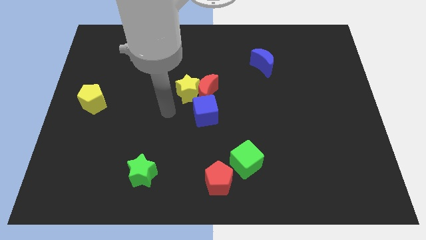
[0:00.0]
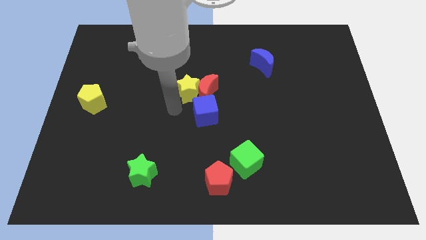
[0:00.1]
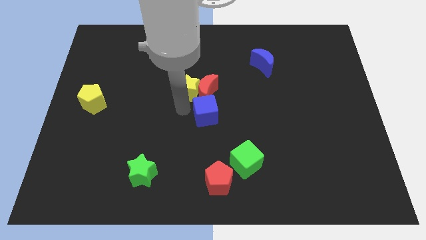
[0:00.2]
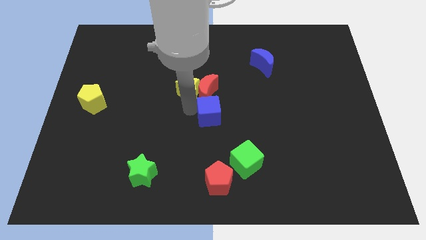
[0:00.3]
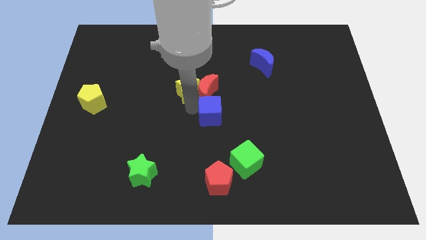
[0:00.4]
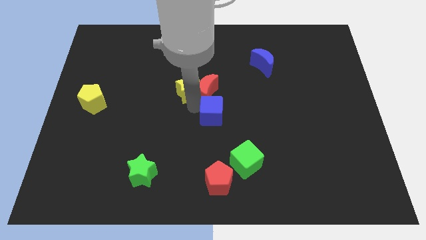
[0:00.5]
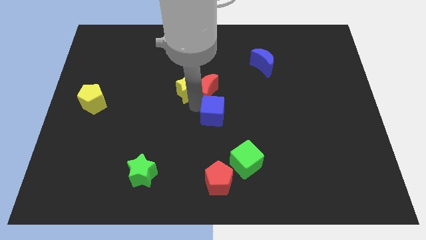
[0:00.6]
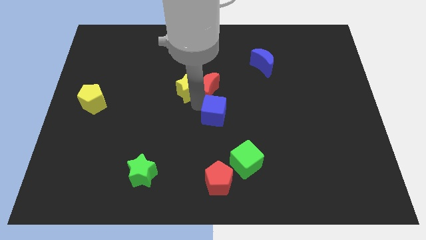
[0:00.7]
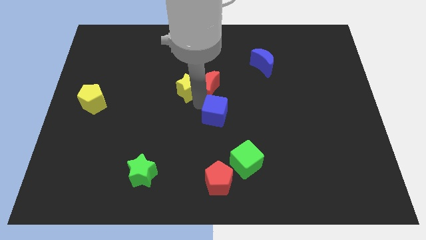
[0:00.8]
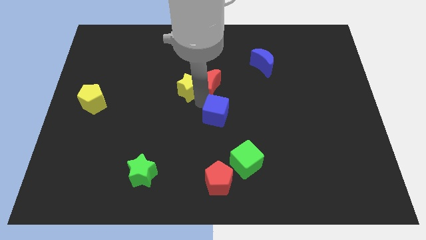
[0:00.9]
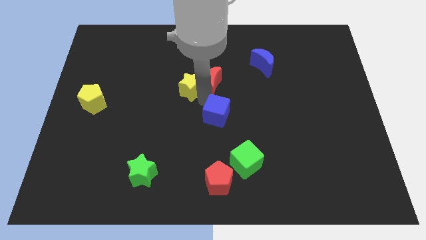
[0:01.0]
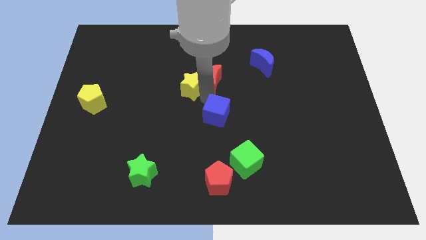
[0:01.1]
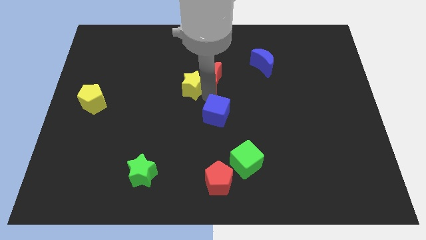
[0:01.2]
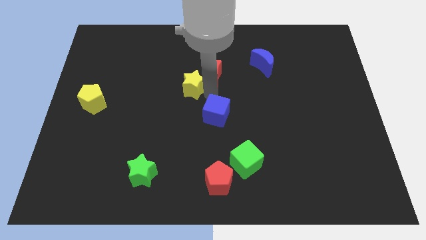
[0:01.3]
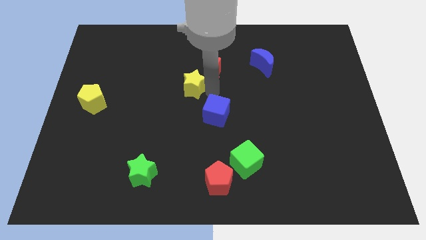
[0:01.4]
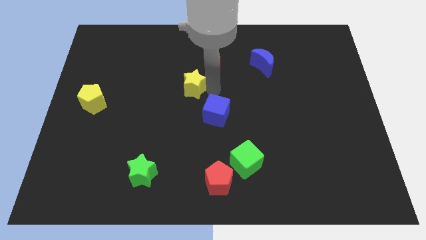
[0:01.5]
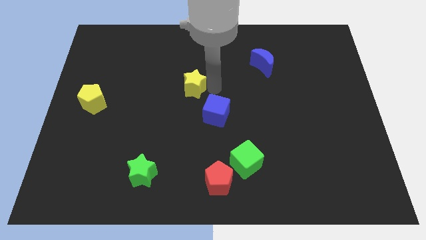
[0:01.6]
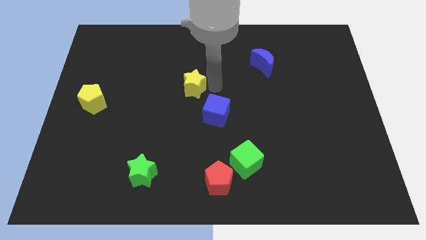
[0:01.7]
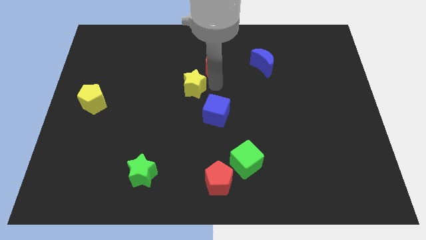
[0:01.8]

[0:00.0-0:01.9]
move the red moon away from the yellow star and blue cube

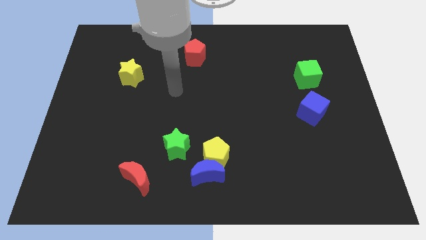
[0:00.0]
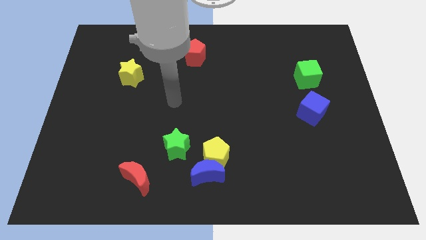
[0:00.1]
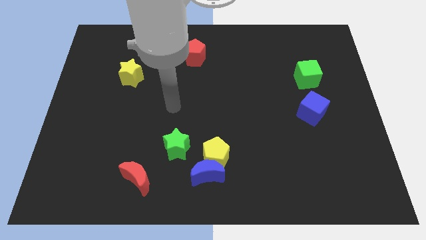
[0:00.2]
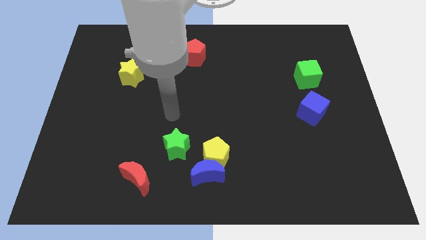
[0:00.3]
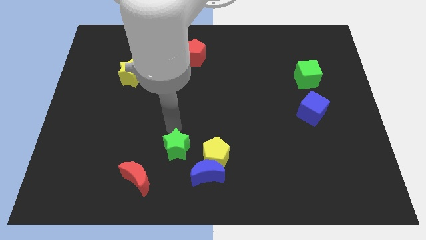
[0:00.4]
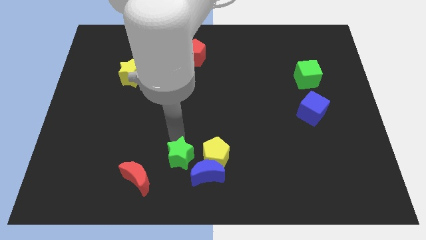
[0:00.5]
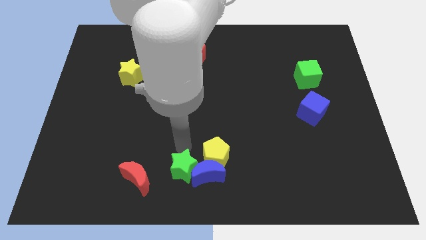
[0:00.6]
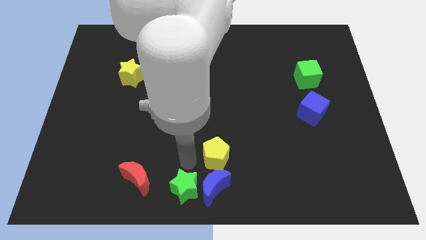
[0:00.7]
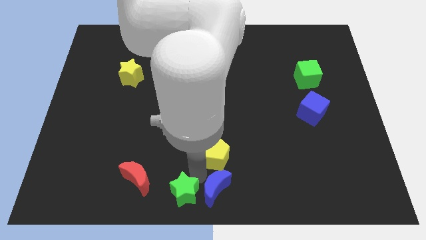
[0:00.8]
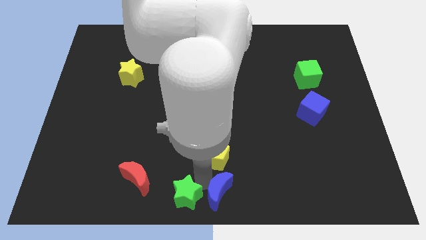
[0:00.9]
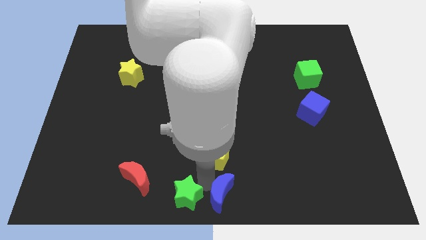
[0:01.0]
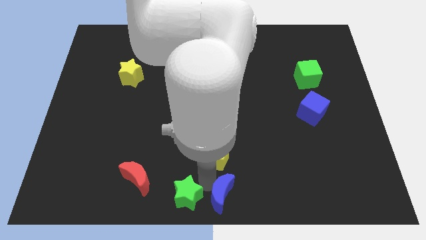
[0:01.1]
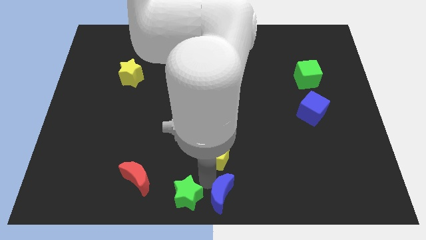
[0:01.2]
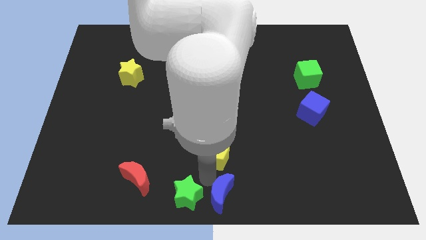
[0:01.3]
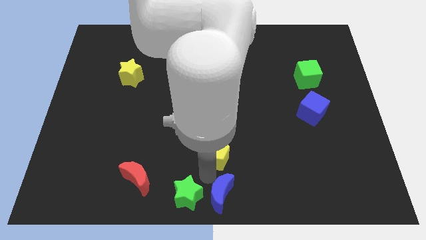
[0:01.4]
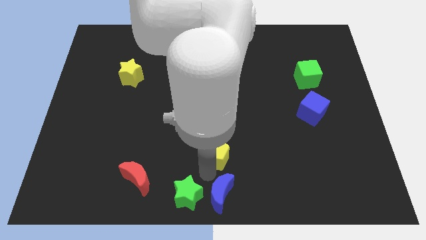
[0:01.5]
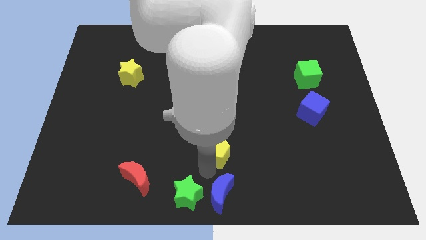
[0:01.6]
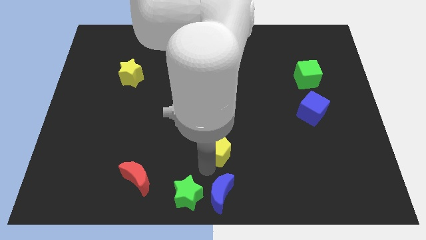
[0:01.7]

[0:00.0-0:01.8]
separate the yellow pentagon from the blue moon and green star

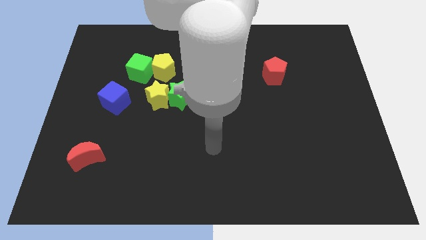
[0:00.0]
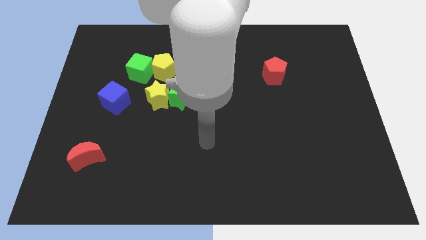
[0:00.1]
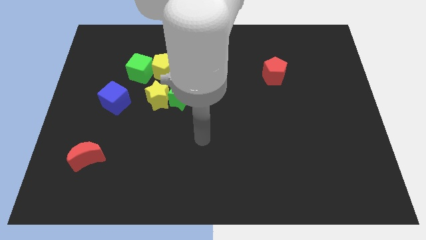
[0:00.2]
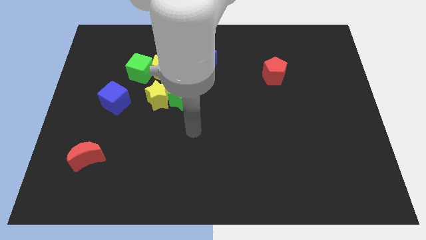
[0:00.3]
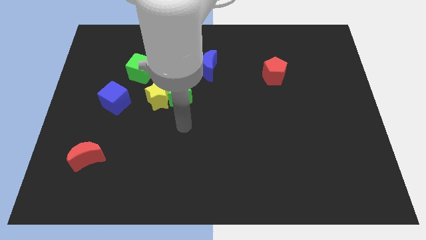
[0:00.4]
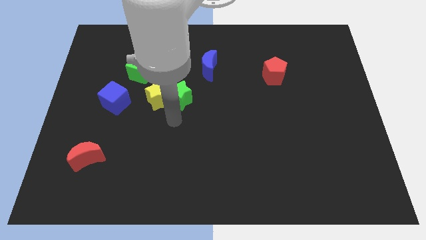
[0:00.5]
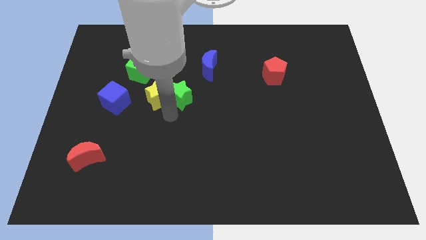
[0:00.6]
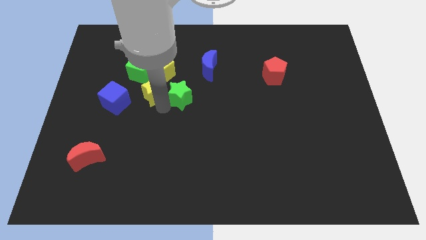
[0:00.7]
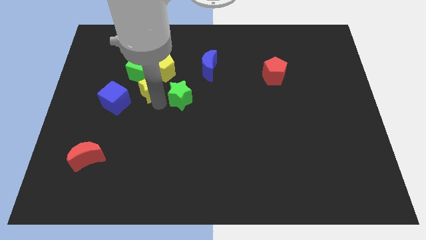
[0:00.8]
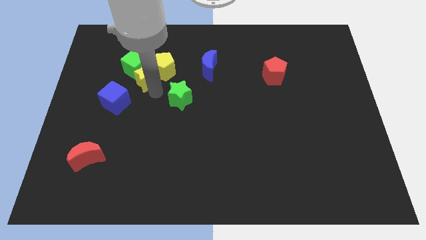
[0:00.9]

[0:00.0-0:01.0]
pull the green star apart from the yellow star

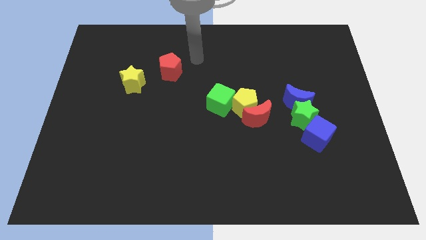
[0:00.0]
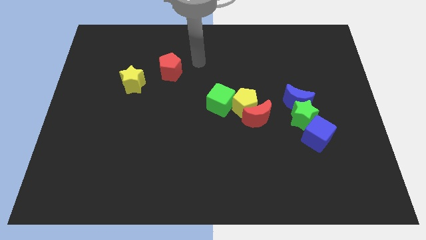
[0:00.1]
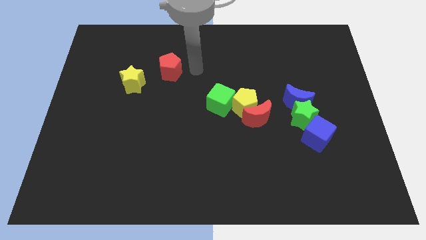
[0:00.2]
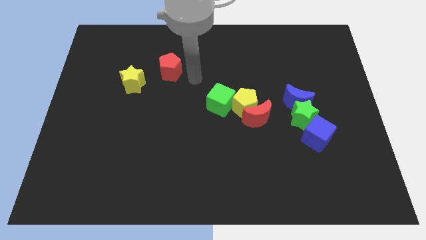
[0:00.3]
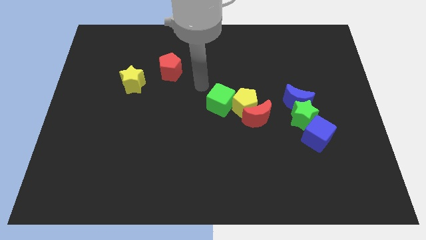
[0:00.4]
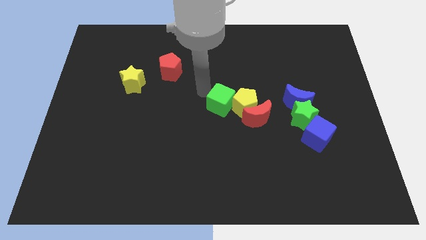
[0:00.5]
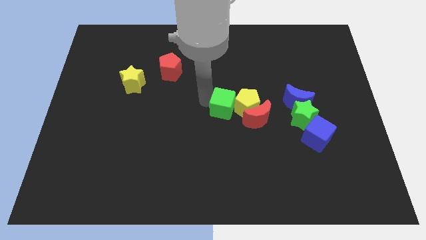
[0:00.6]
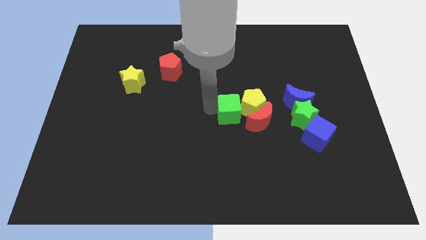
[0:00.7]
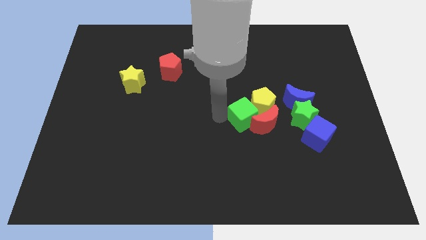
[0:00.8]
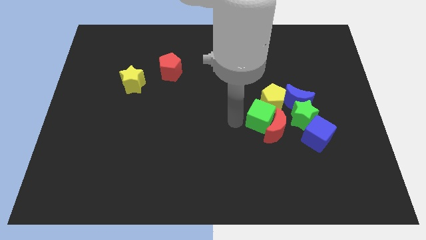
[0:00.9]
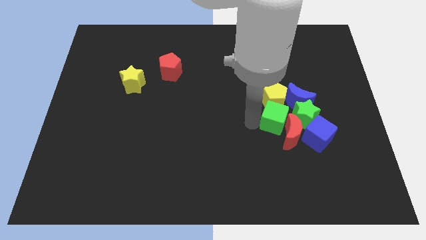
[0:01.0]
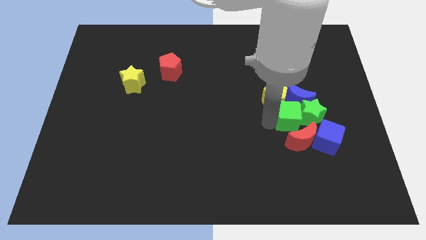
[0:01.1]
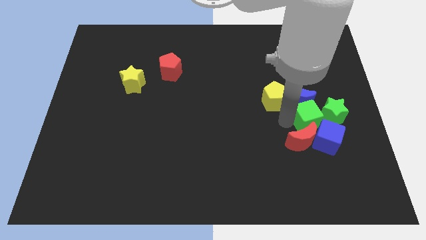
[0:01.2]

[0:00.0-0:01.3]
pull the yellow pentagon apart from the red moon and green cube

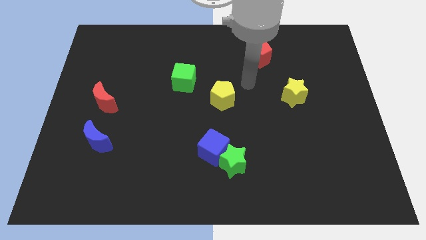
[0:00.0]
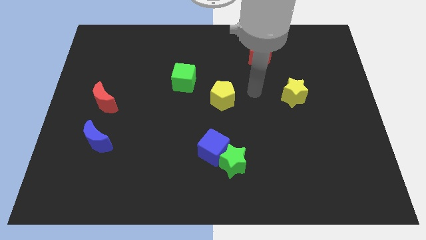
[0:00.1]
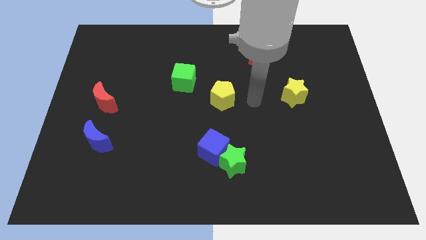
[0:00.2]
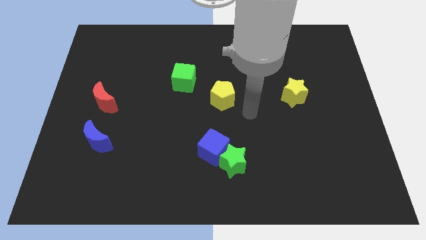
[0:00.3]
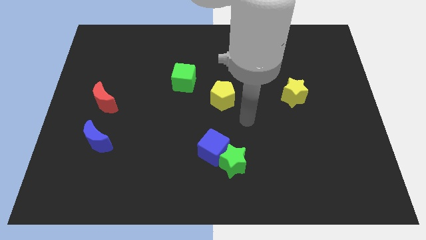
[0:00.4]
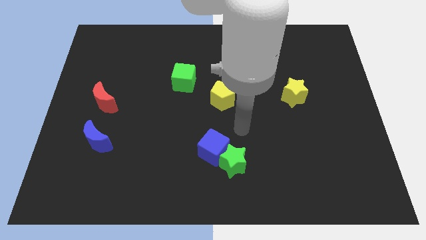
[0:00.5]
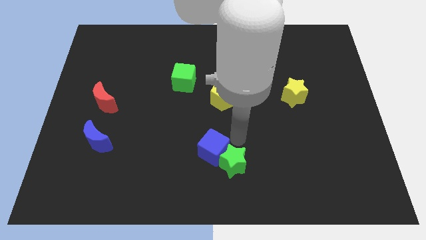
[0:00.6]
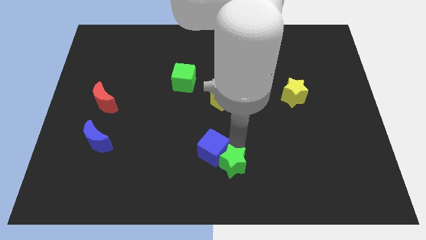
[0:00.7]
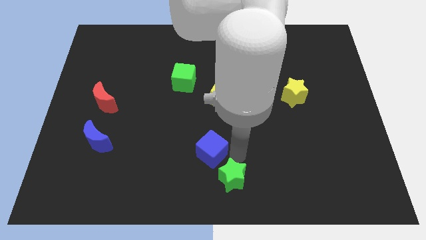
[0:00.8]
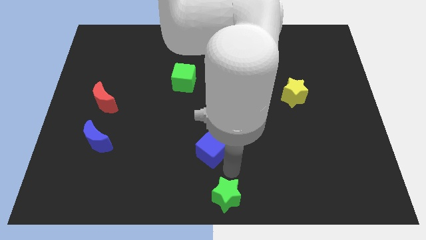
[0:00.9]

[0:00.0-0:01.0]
separate the blue cube from the green star

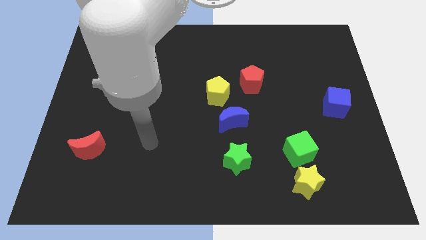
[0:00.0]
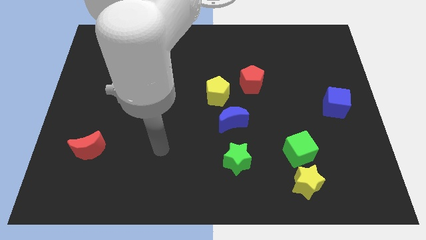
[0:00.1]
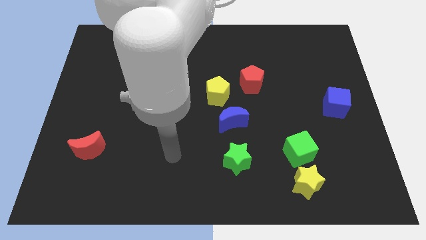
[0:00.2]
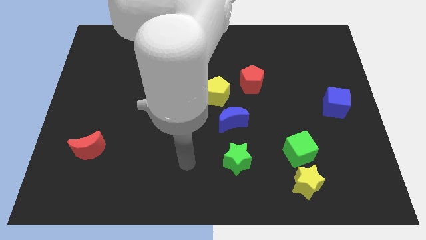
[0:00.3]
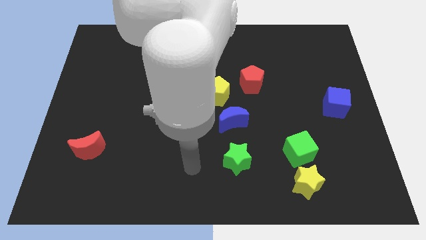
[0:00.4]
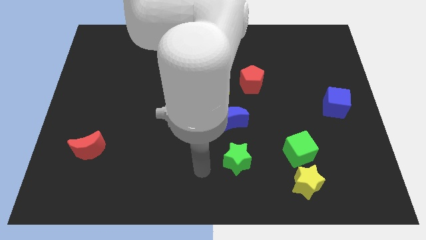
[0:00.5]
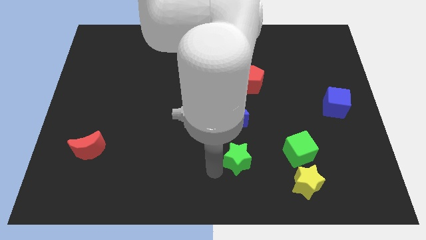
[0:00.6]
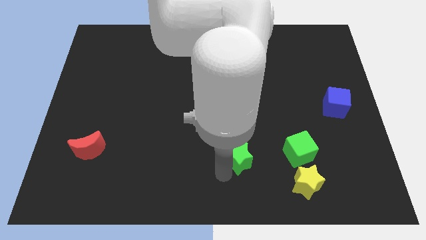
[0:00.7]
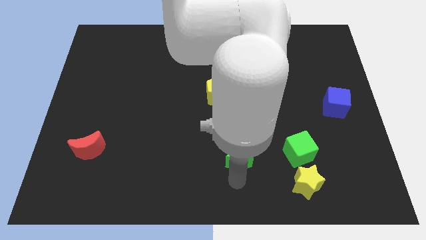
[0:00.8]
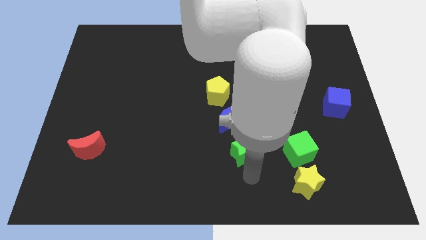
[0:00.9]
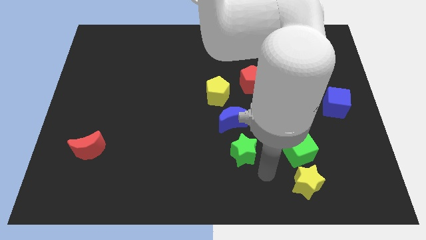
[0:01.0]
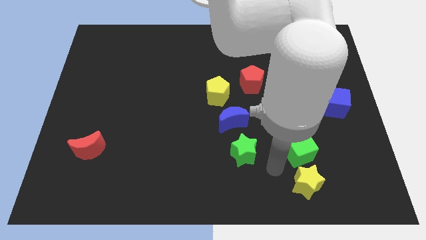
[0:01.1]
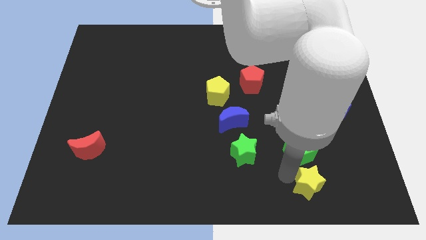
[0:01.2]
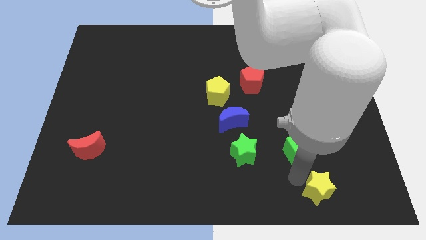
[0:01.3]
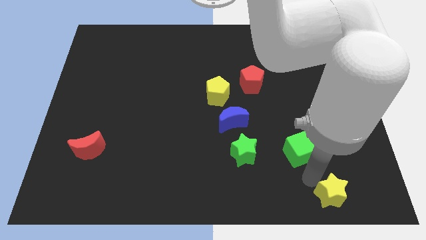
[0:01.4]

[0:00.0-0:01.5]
move the green cube away from the yellow star

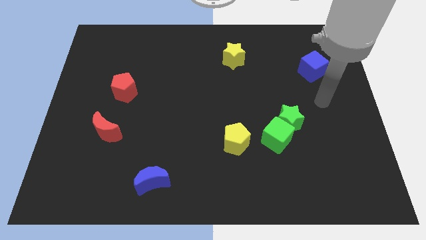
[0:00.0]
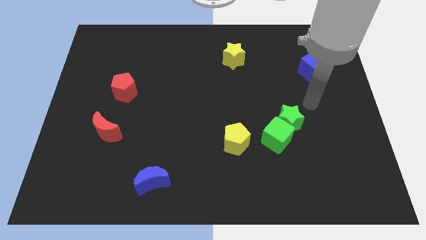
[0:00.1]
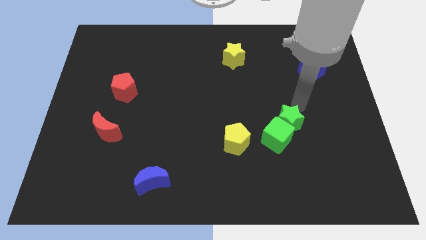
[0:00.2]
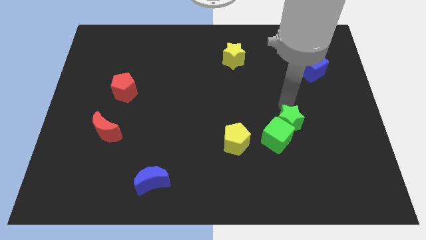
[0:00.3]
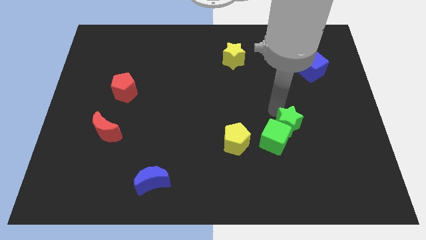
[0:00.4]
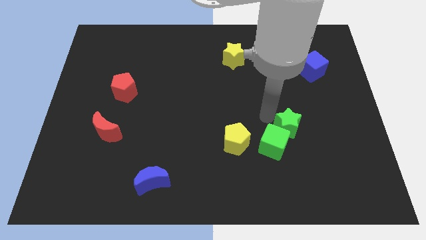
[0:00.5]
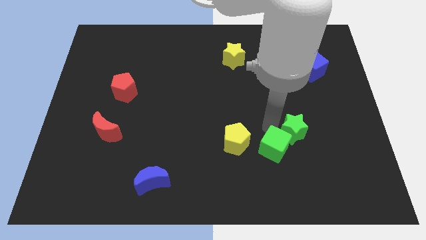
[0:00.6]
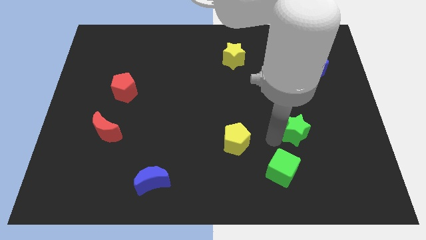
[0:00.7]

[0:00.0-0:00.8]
pull the green star apart from the green cube

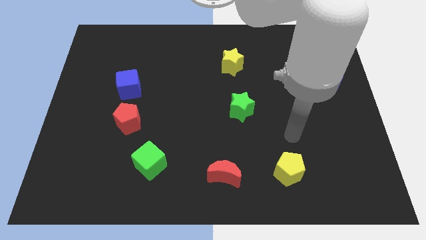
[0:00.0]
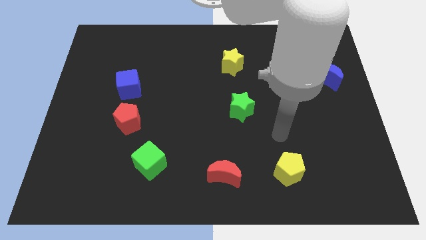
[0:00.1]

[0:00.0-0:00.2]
move the red pentagon away from the blue cube
